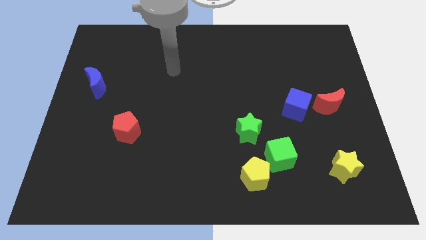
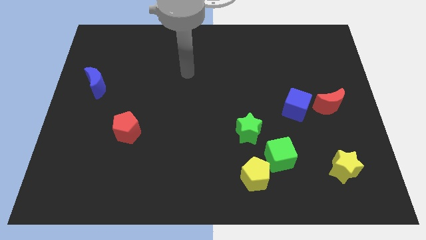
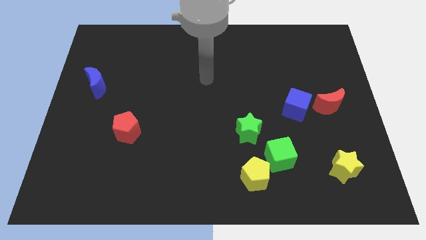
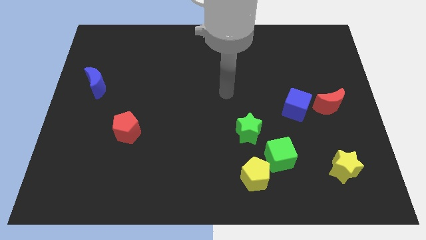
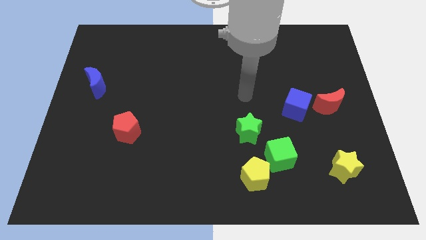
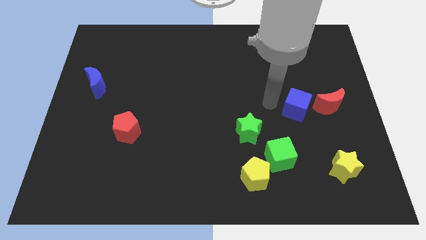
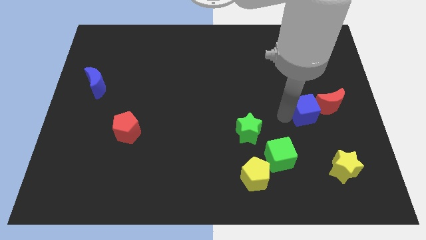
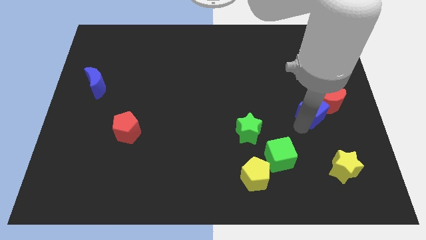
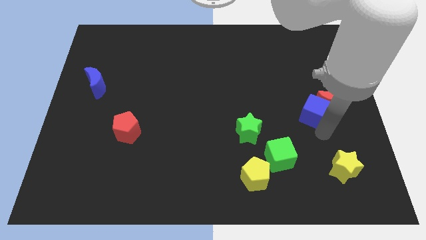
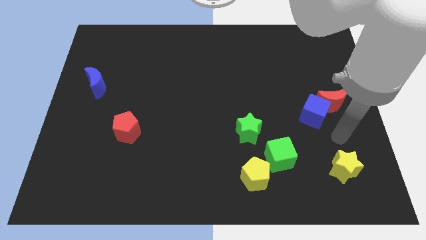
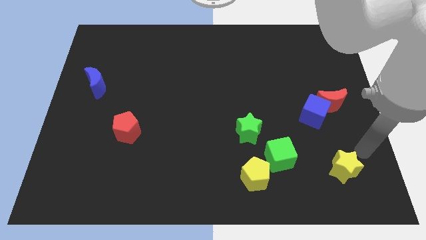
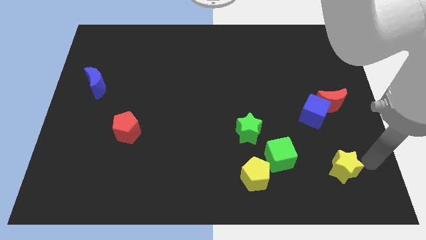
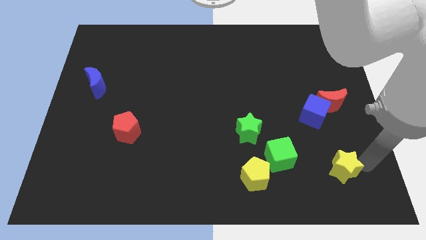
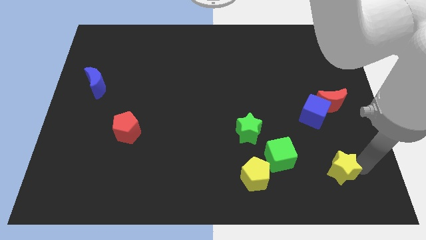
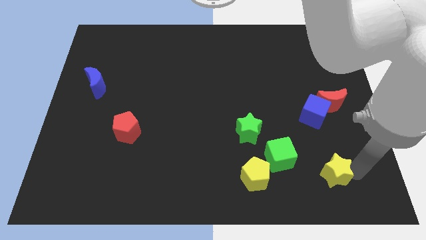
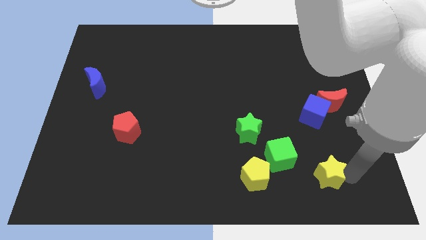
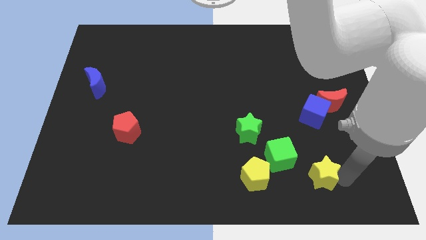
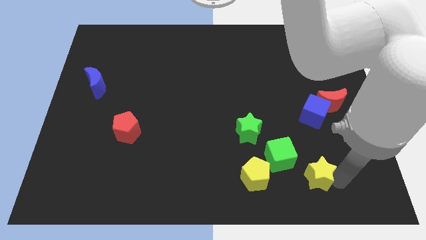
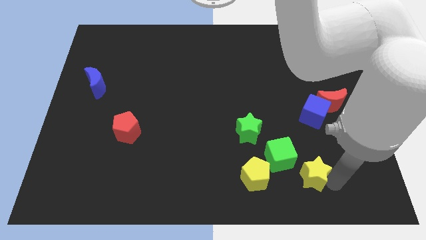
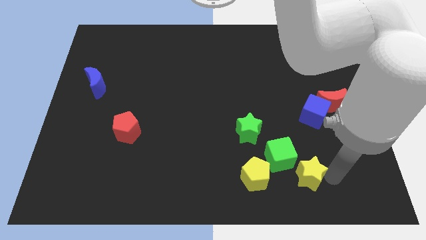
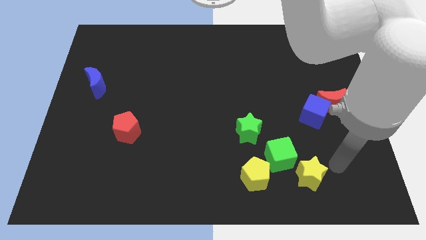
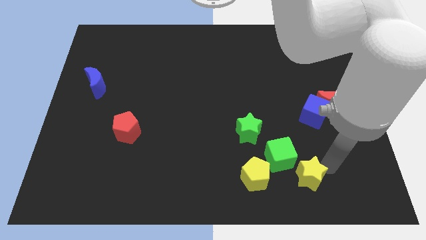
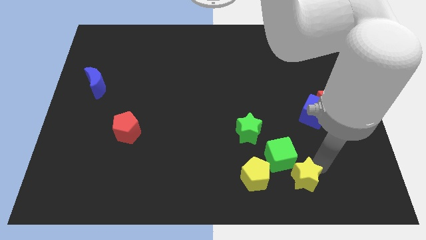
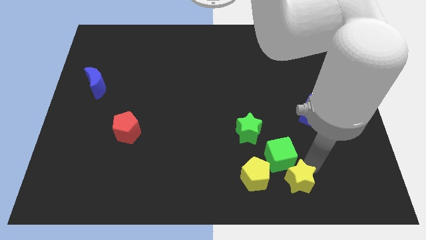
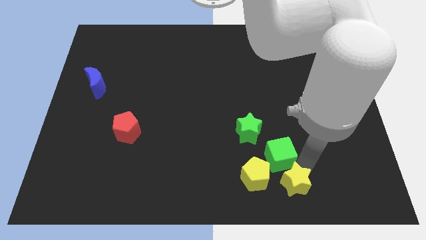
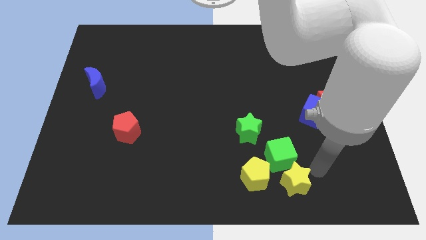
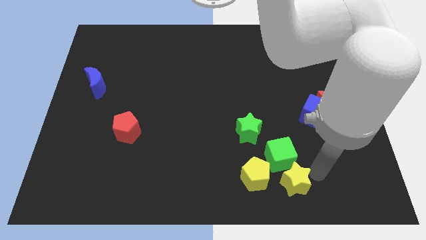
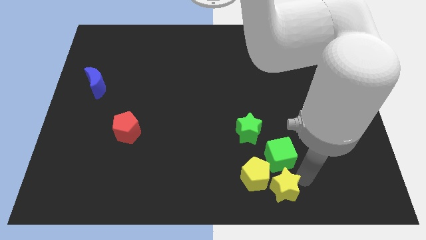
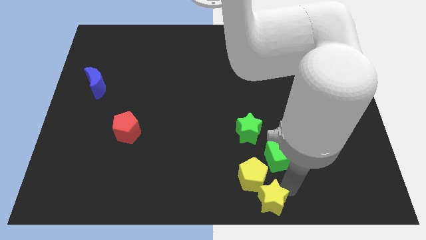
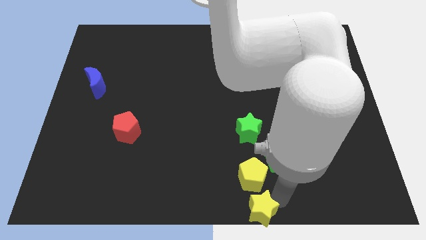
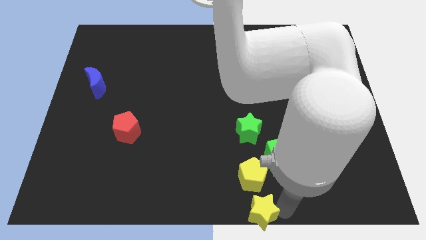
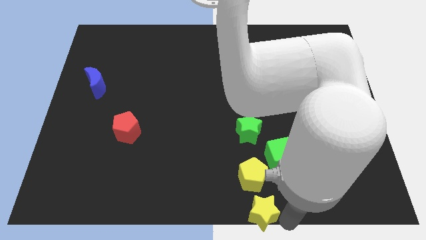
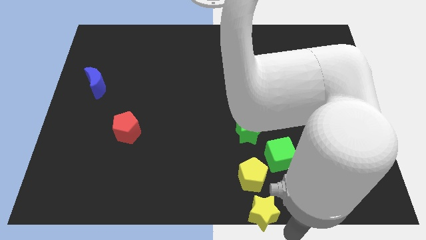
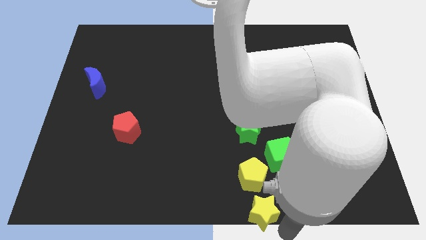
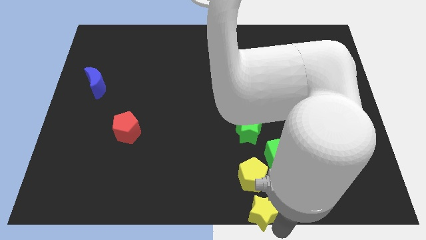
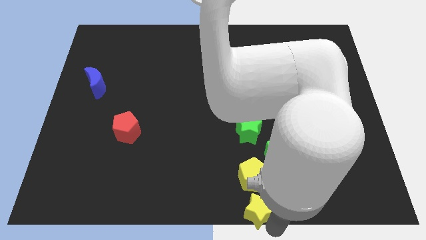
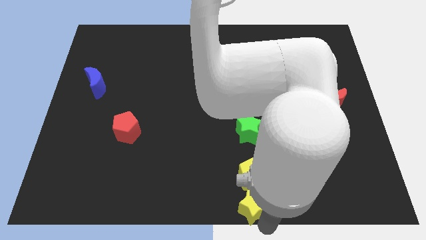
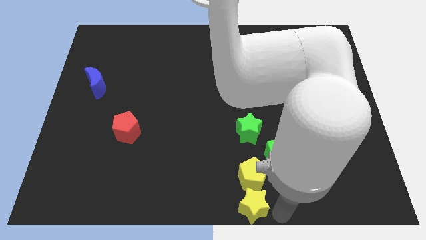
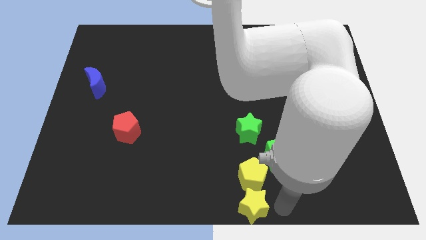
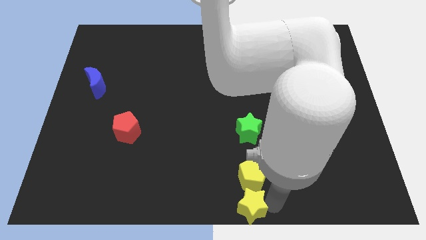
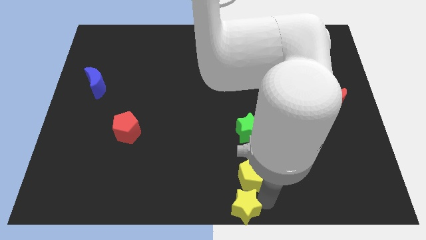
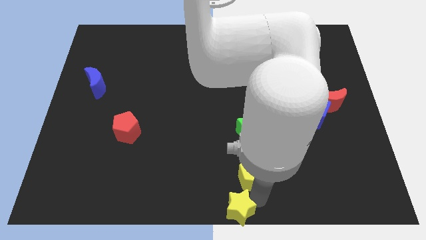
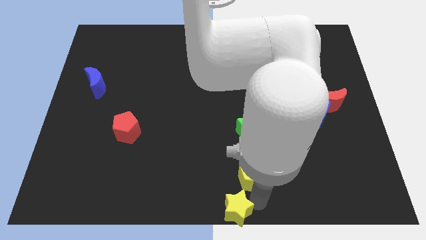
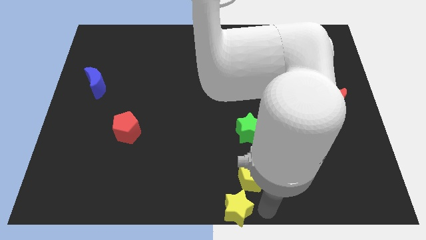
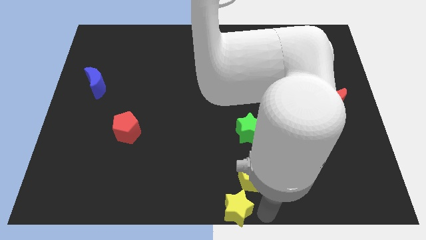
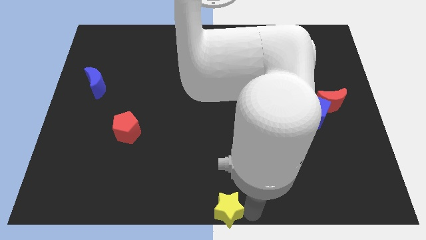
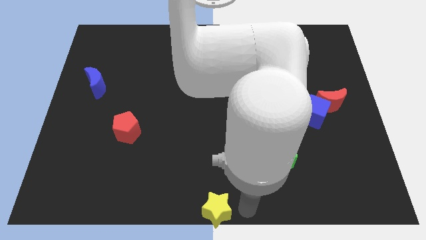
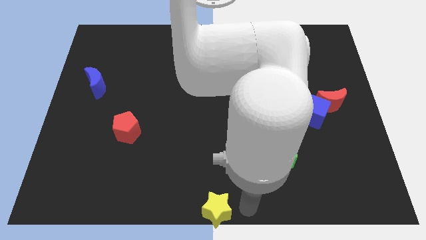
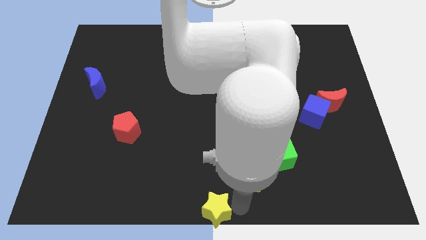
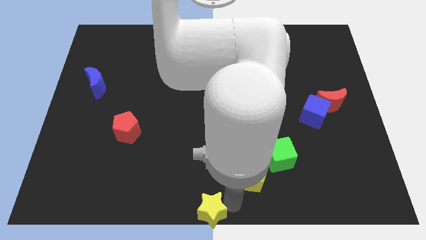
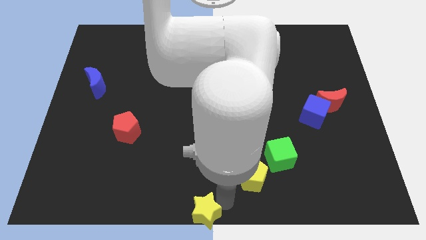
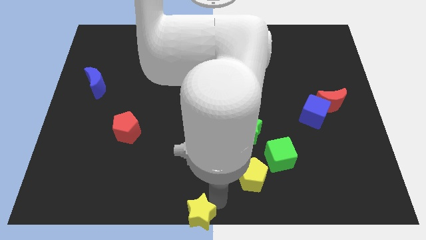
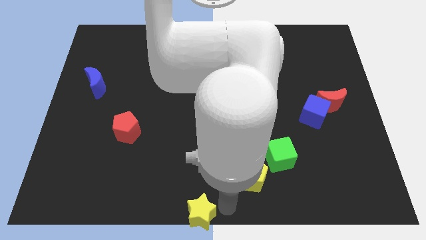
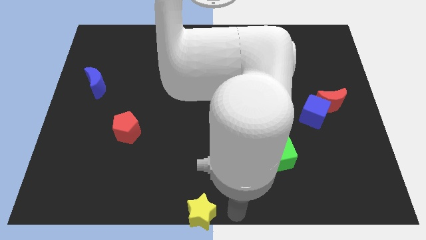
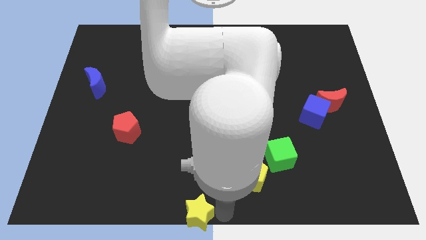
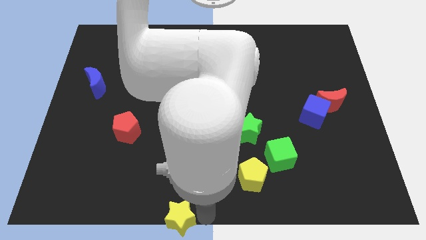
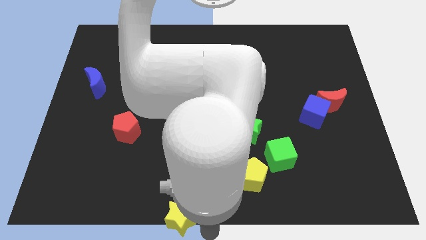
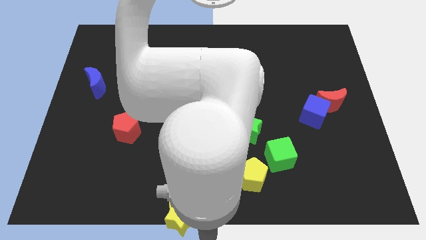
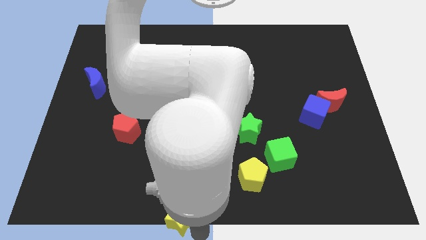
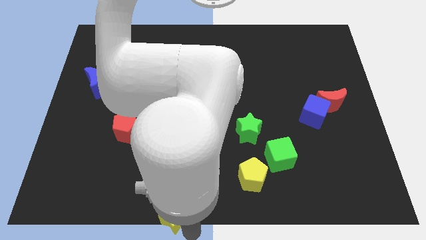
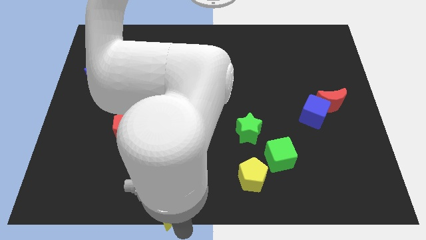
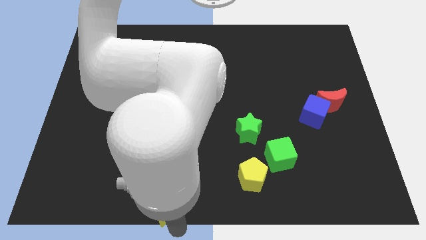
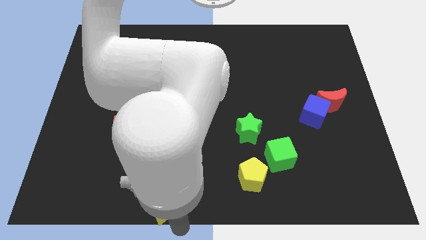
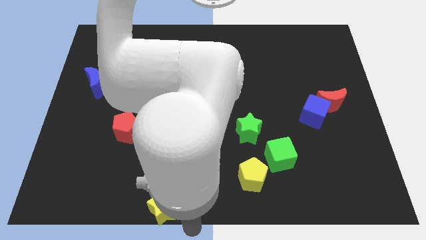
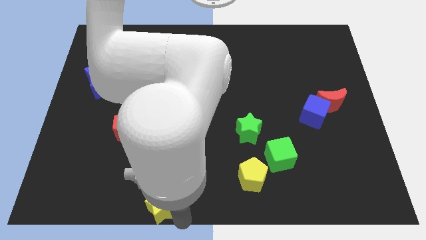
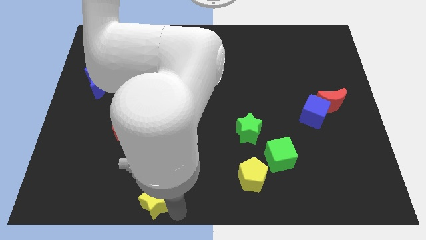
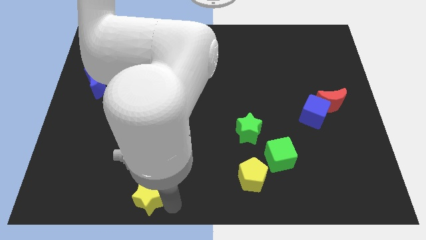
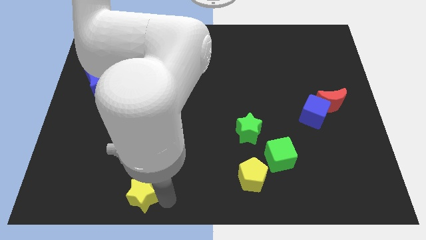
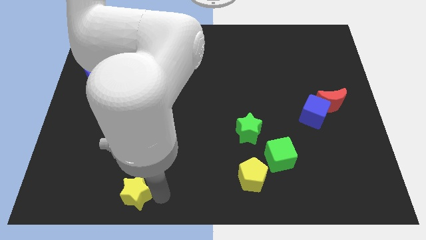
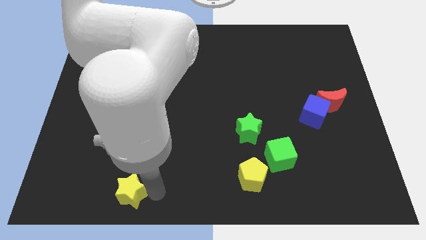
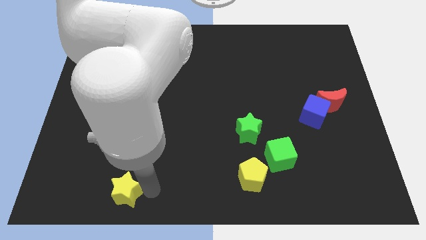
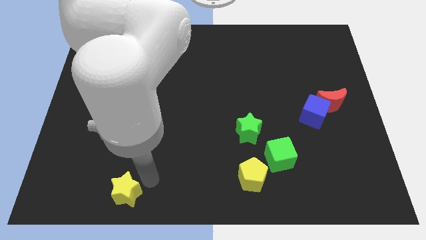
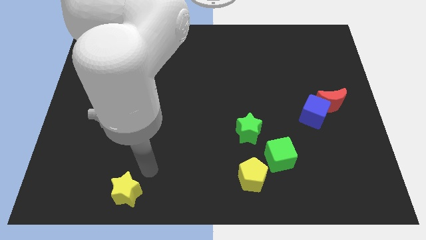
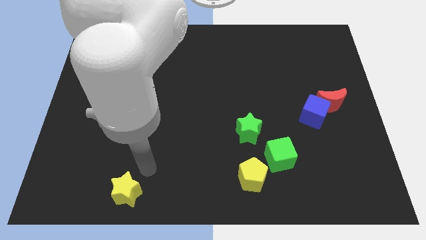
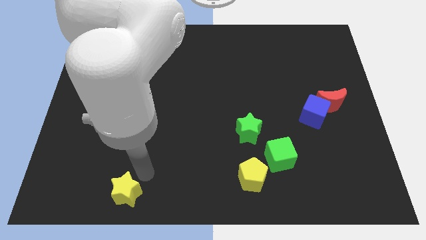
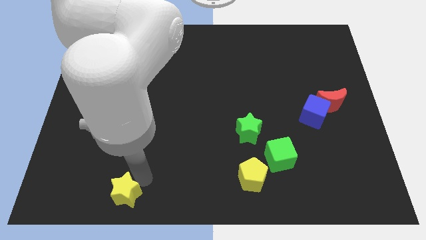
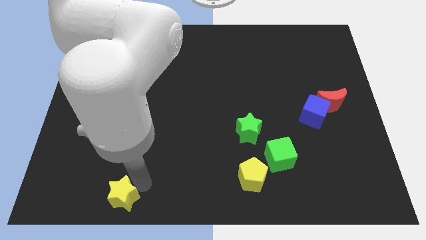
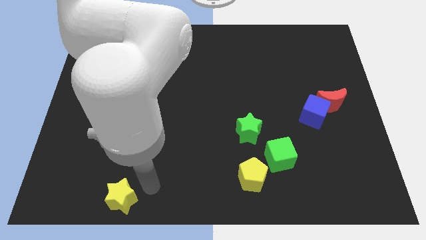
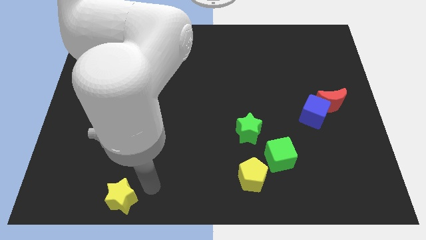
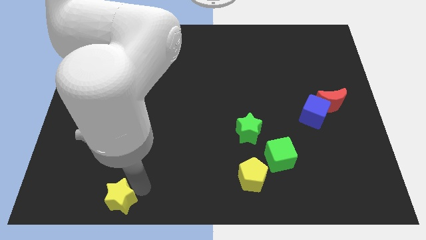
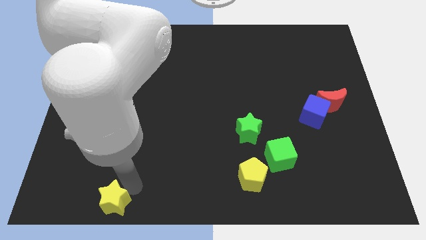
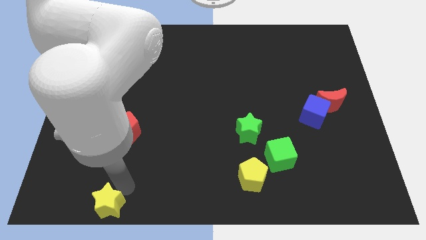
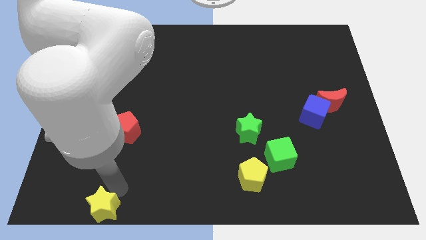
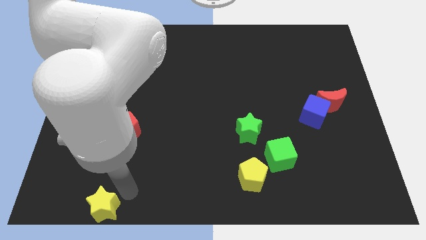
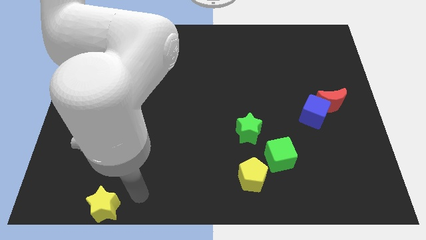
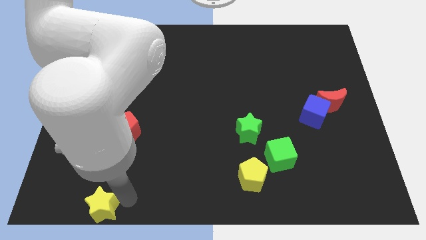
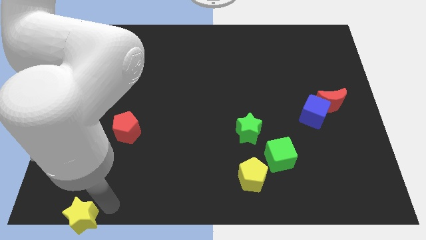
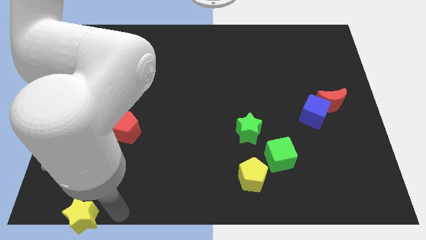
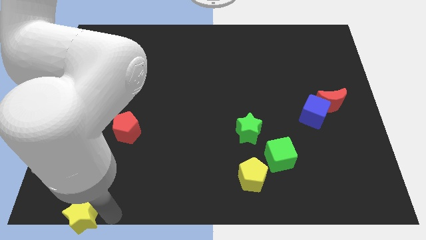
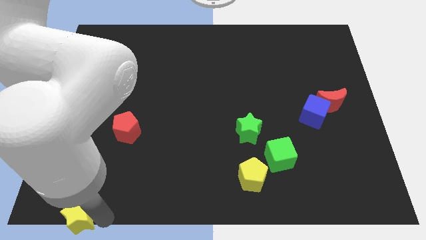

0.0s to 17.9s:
slide the yellow star to the bottom left
